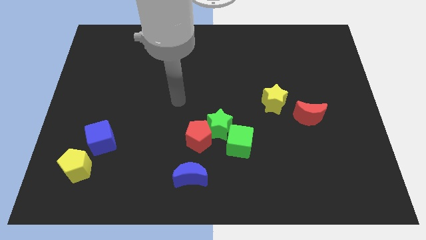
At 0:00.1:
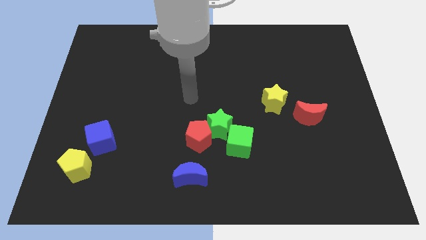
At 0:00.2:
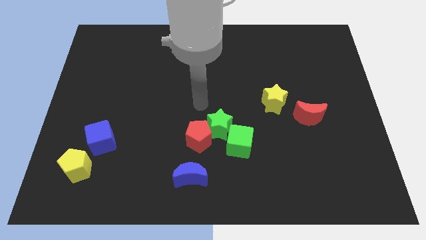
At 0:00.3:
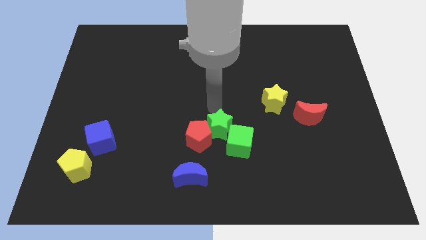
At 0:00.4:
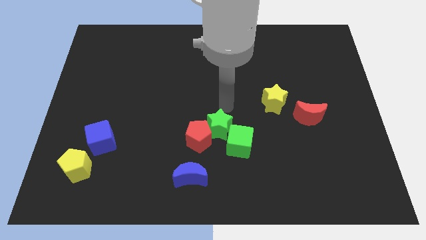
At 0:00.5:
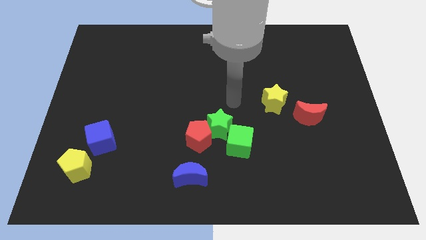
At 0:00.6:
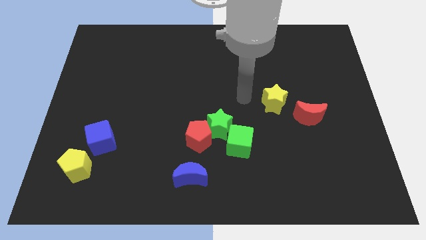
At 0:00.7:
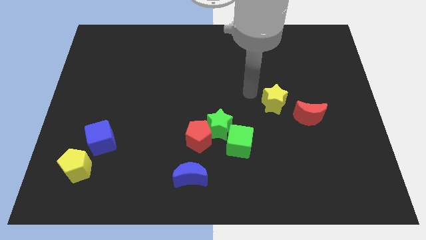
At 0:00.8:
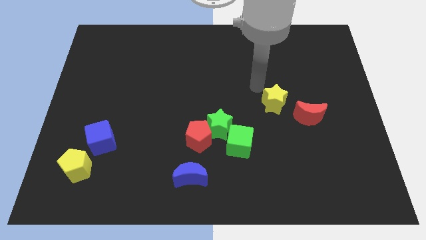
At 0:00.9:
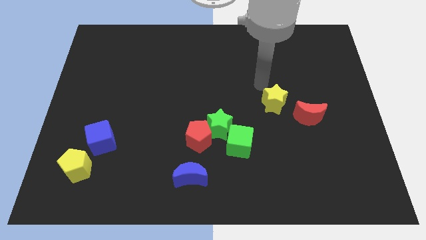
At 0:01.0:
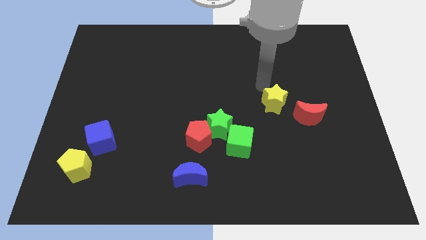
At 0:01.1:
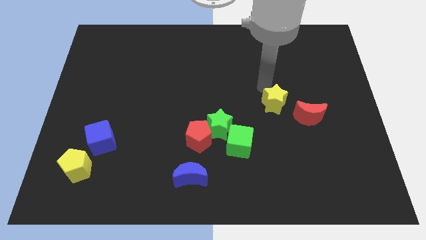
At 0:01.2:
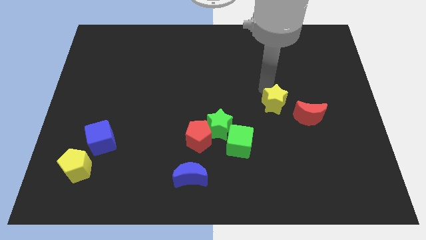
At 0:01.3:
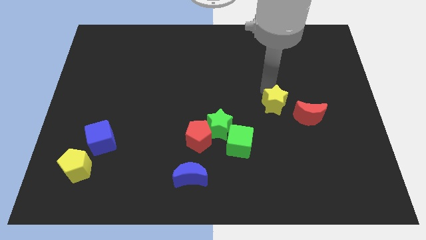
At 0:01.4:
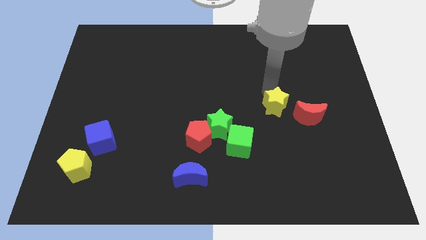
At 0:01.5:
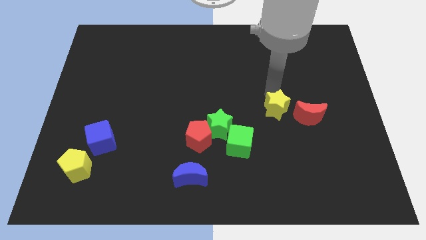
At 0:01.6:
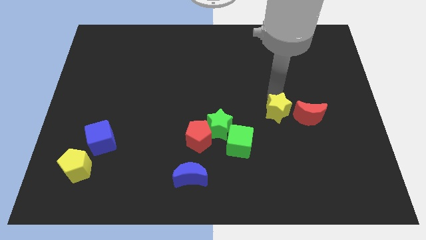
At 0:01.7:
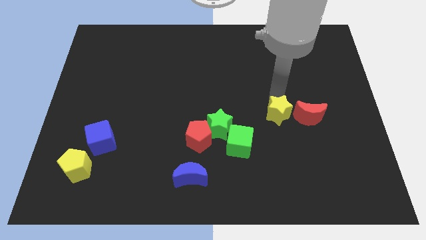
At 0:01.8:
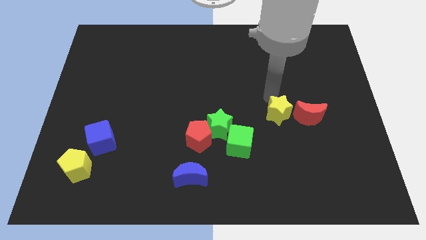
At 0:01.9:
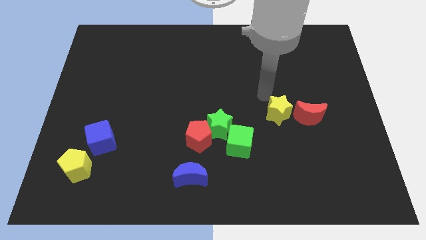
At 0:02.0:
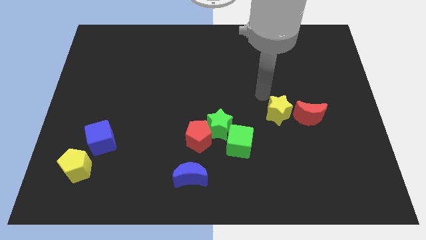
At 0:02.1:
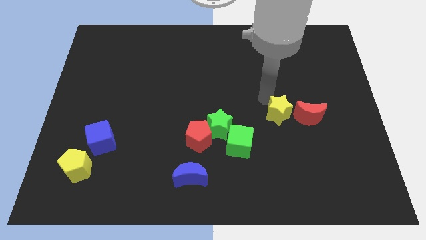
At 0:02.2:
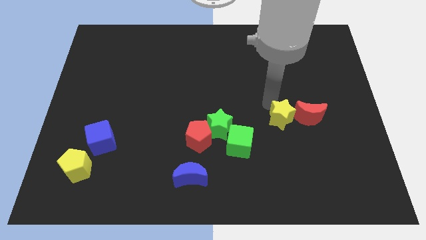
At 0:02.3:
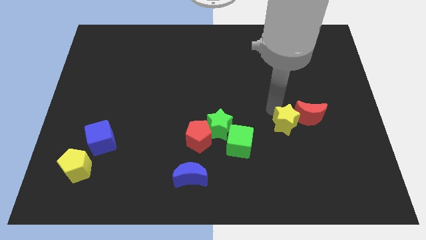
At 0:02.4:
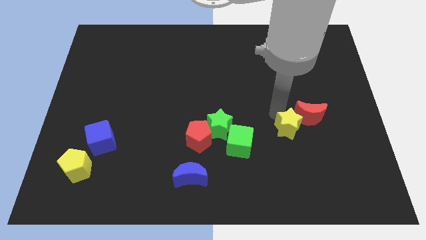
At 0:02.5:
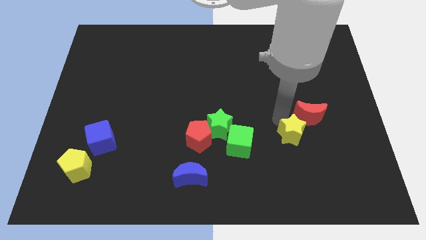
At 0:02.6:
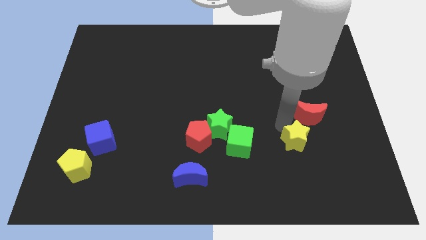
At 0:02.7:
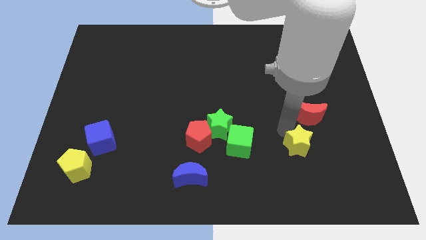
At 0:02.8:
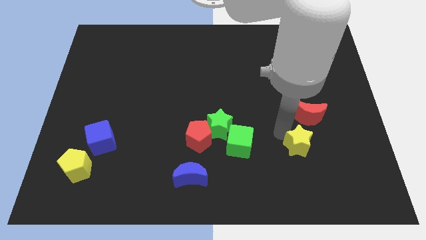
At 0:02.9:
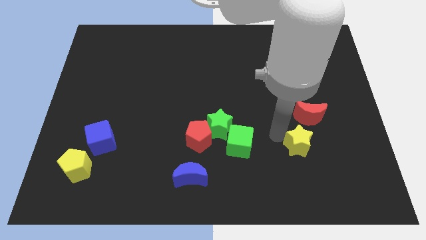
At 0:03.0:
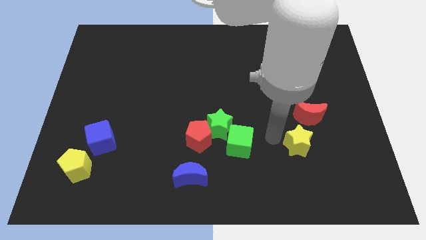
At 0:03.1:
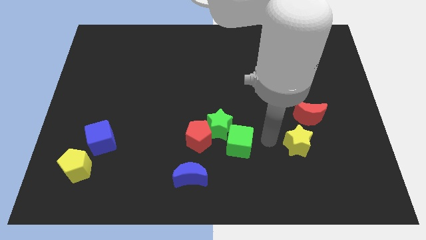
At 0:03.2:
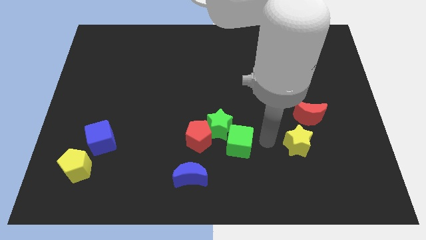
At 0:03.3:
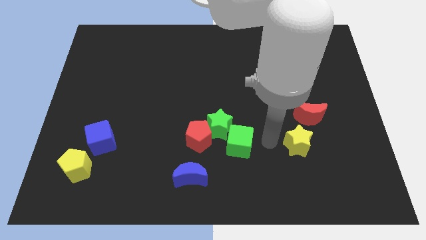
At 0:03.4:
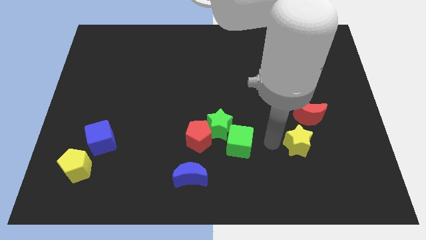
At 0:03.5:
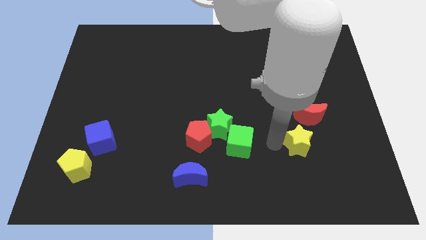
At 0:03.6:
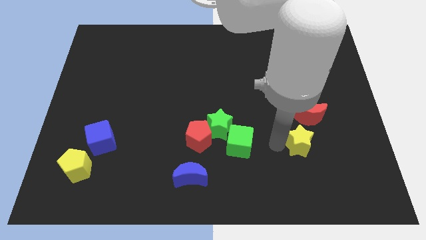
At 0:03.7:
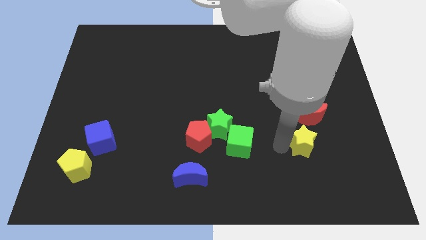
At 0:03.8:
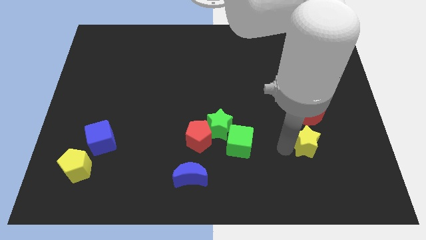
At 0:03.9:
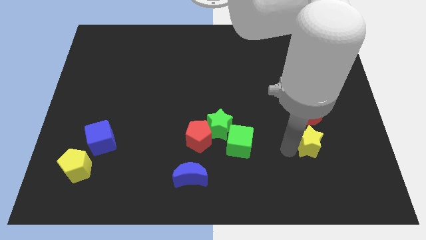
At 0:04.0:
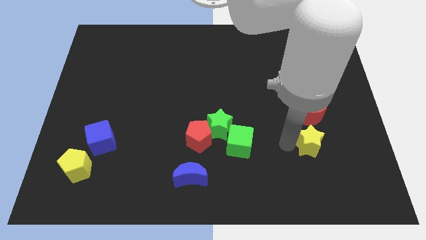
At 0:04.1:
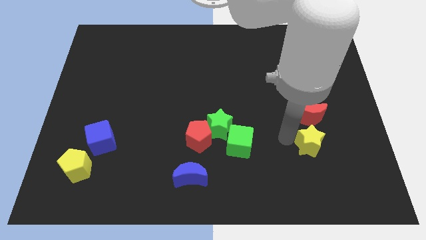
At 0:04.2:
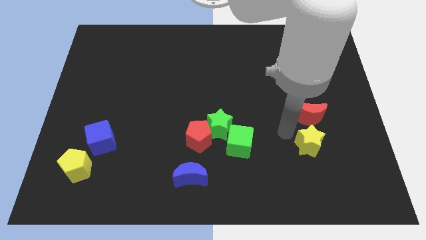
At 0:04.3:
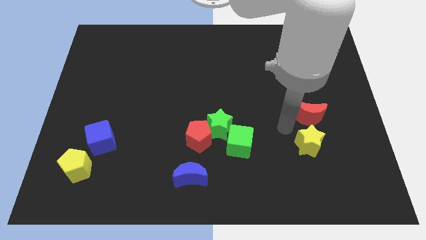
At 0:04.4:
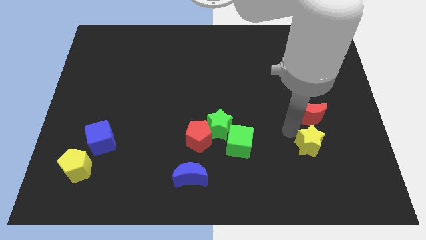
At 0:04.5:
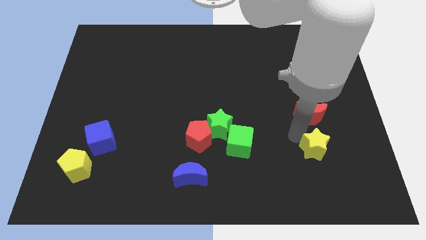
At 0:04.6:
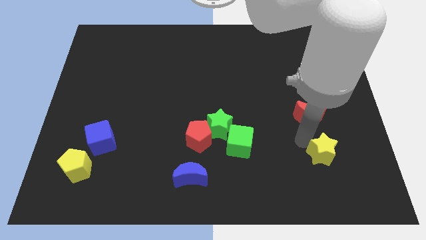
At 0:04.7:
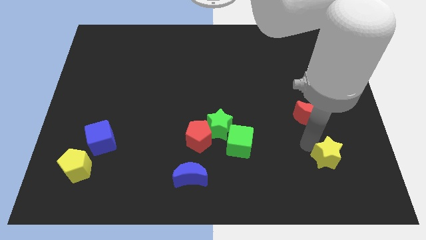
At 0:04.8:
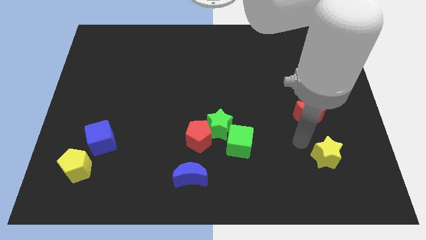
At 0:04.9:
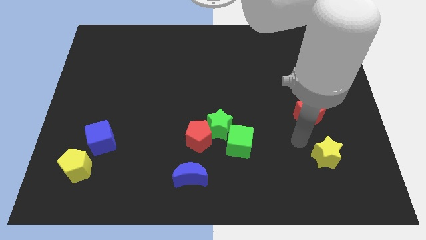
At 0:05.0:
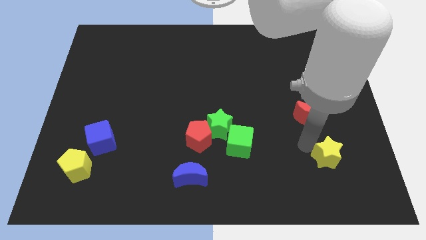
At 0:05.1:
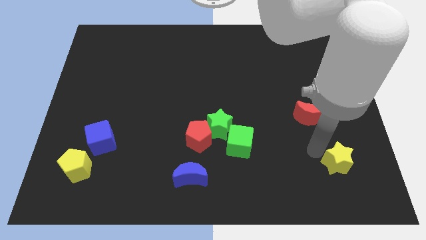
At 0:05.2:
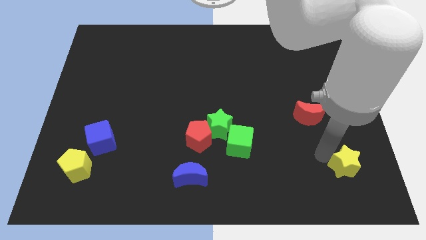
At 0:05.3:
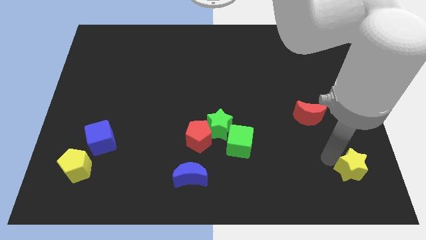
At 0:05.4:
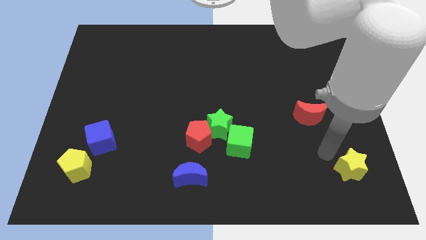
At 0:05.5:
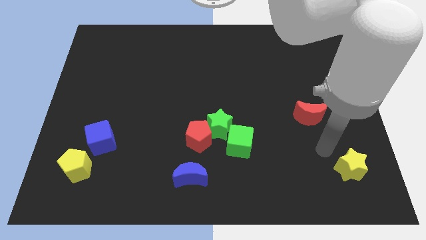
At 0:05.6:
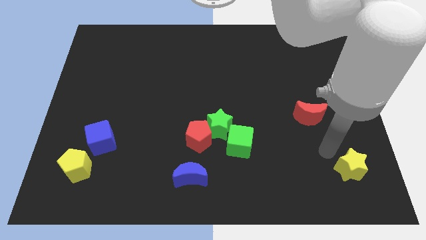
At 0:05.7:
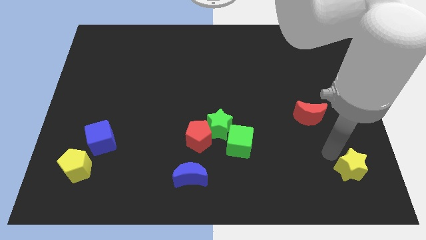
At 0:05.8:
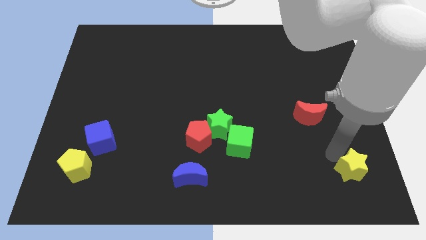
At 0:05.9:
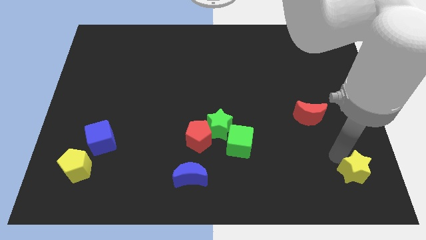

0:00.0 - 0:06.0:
push the yellow star to the bottom right
